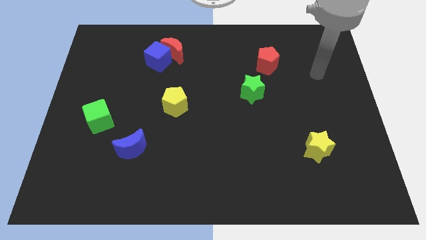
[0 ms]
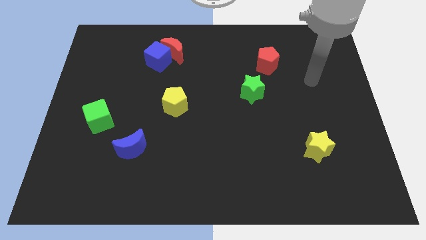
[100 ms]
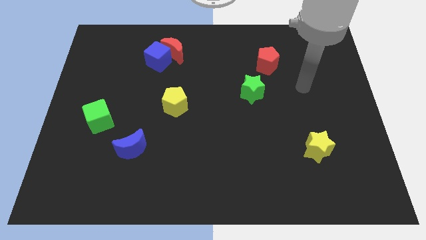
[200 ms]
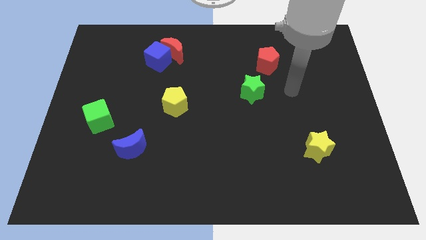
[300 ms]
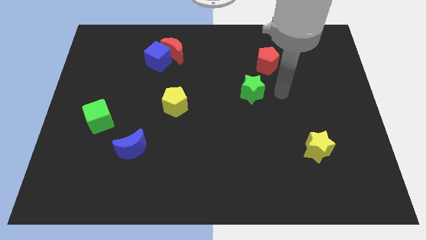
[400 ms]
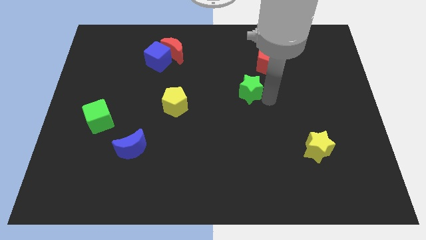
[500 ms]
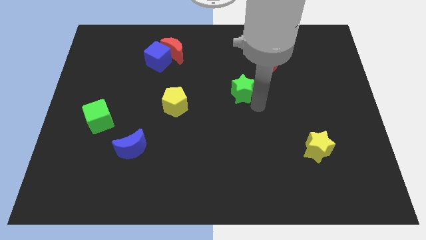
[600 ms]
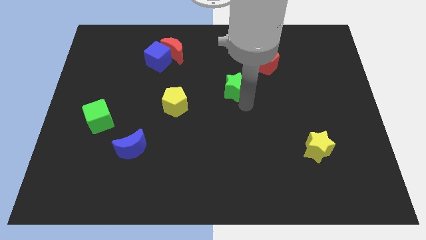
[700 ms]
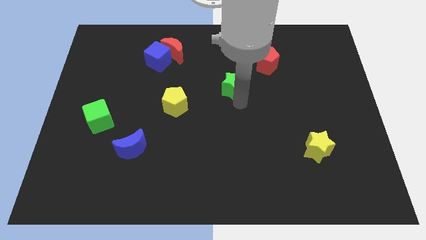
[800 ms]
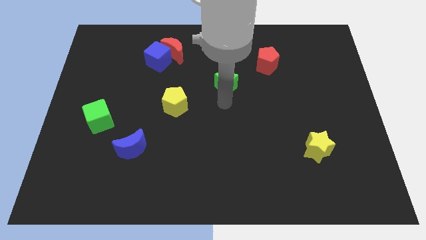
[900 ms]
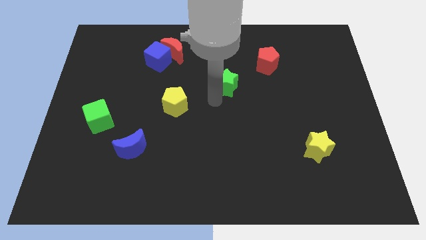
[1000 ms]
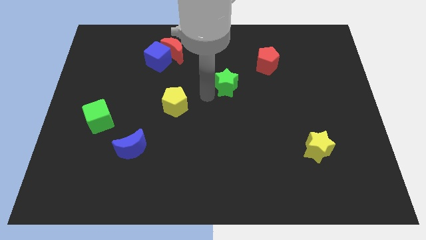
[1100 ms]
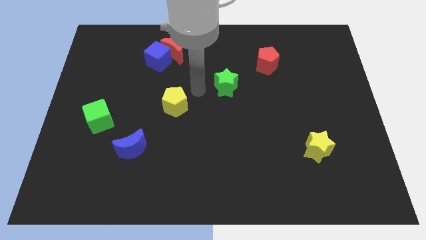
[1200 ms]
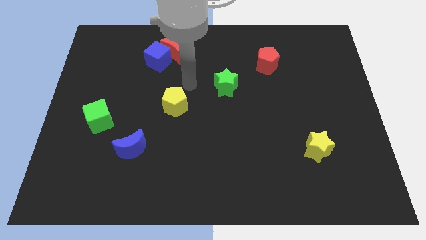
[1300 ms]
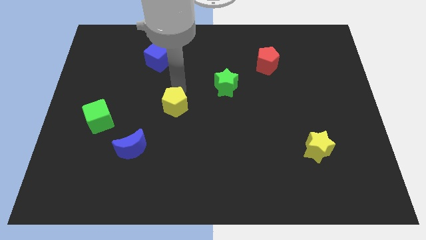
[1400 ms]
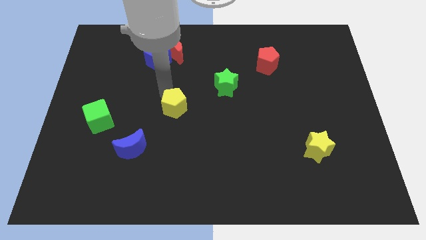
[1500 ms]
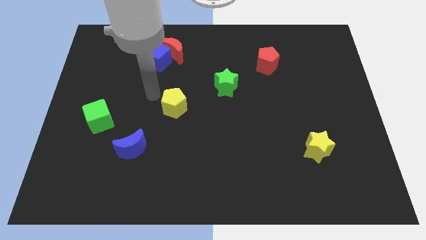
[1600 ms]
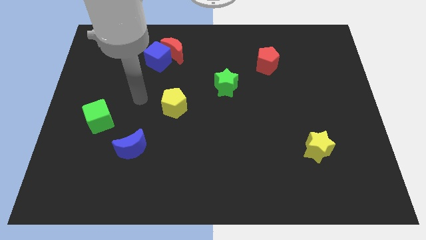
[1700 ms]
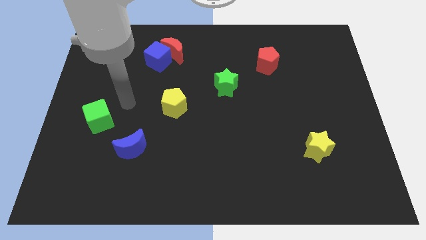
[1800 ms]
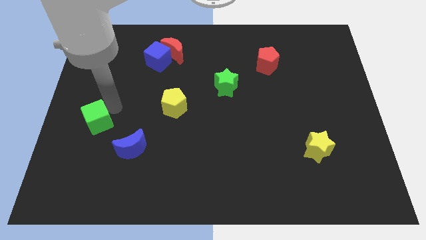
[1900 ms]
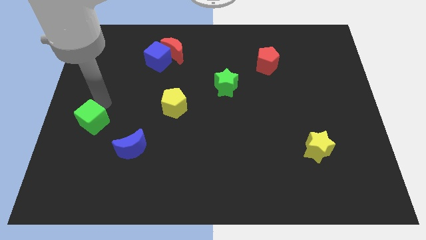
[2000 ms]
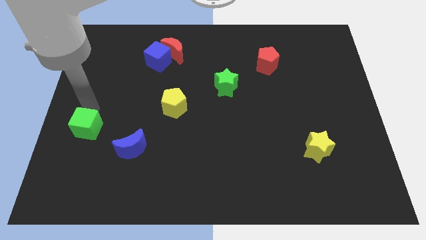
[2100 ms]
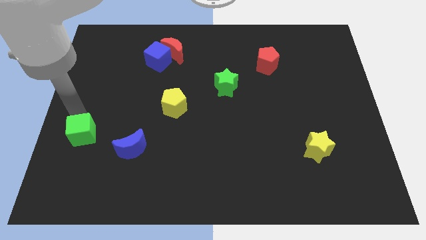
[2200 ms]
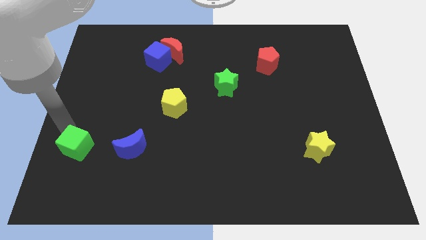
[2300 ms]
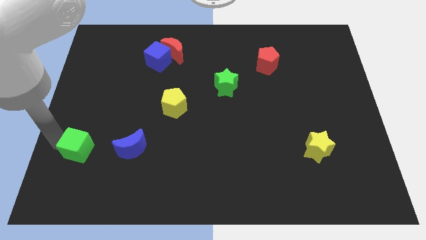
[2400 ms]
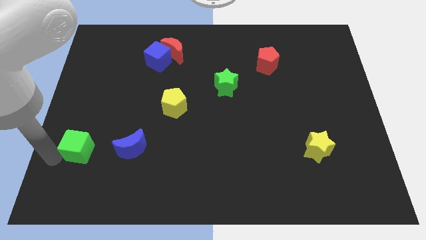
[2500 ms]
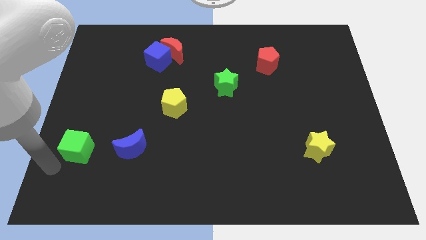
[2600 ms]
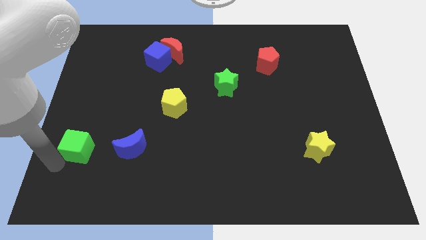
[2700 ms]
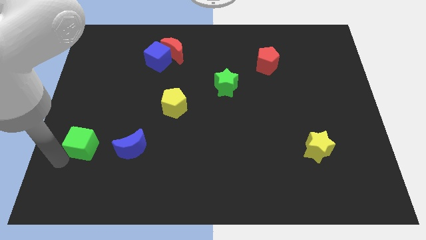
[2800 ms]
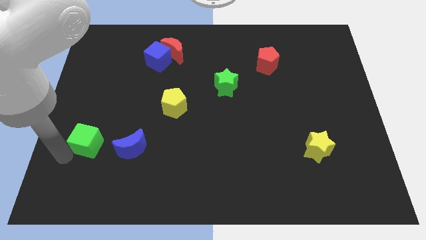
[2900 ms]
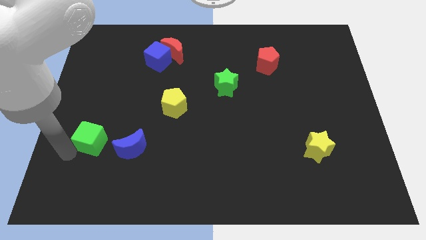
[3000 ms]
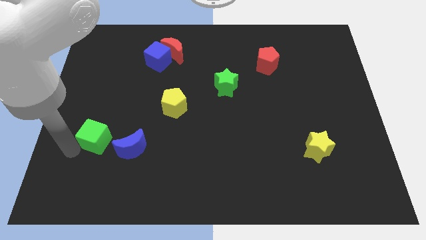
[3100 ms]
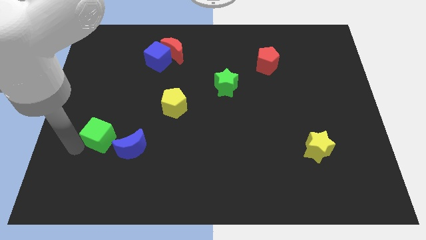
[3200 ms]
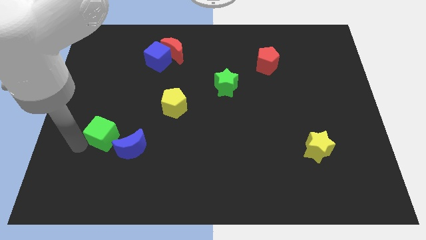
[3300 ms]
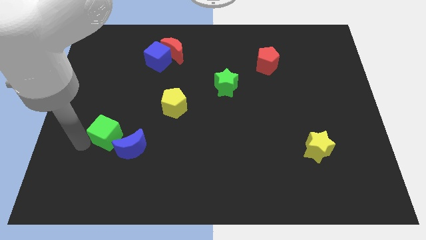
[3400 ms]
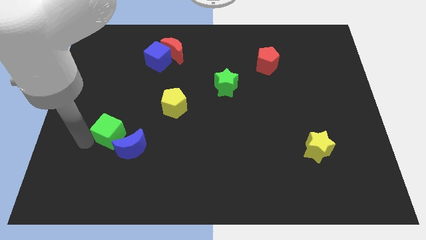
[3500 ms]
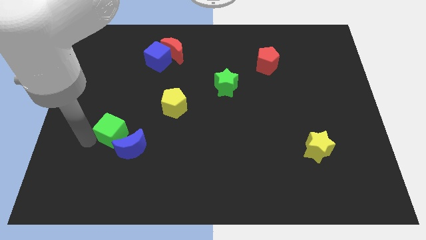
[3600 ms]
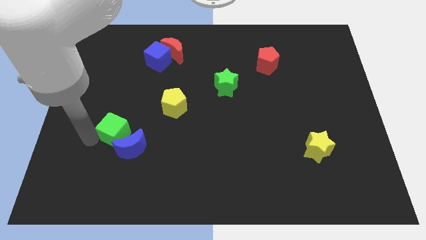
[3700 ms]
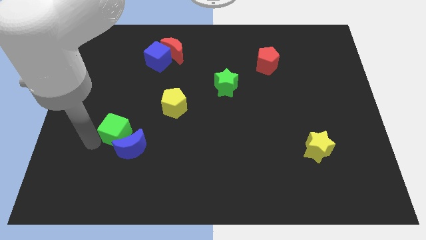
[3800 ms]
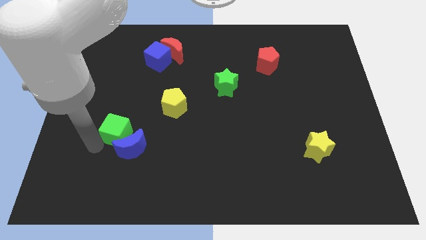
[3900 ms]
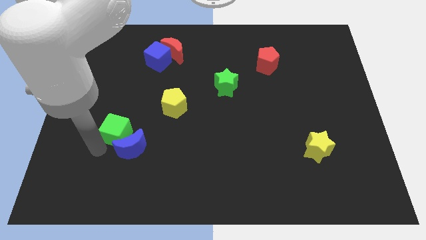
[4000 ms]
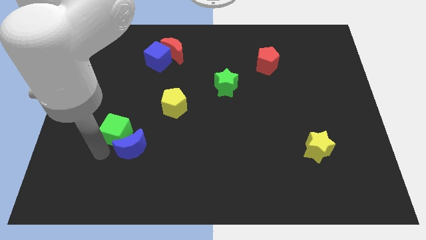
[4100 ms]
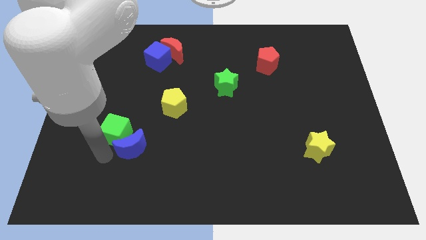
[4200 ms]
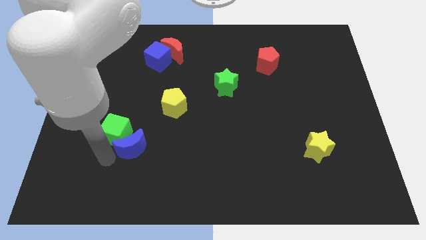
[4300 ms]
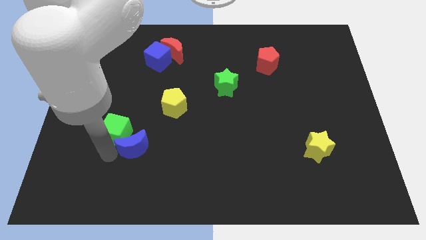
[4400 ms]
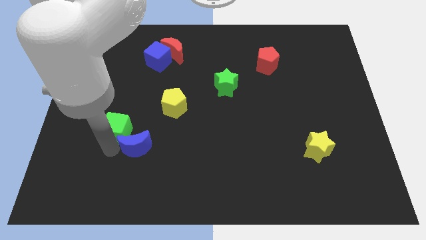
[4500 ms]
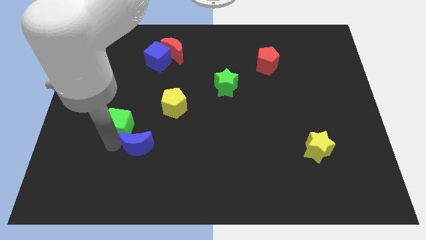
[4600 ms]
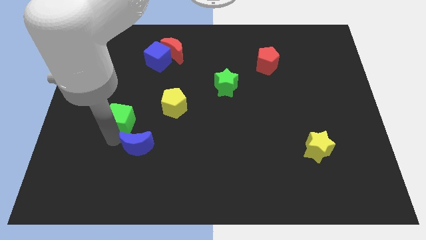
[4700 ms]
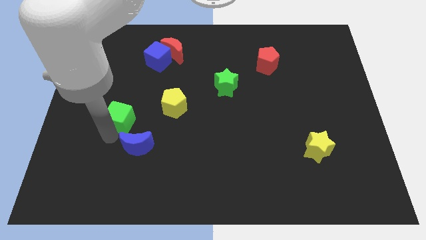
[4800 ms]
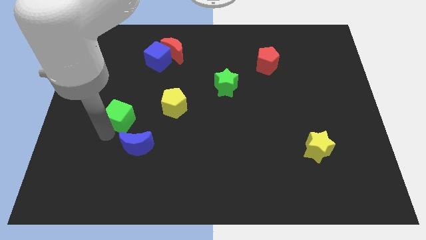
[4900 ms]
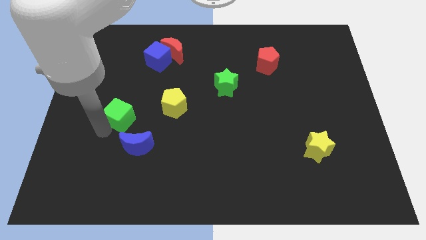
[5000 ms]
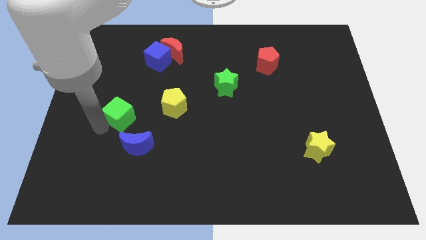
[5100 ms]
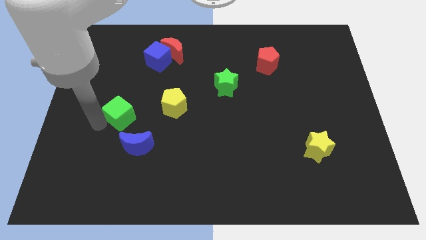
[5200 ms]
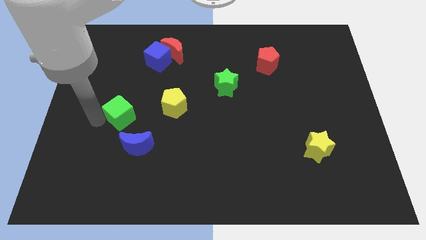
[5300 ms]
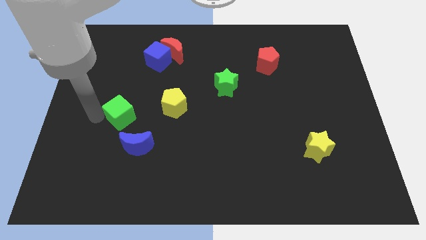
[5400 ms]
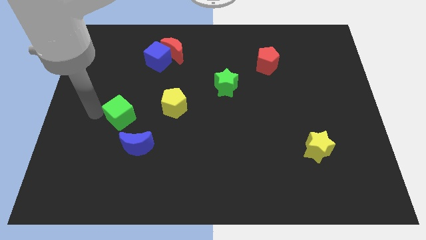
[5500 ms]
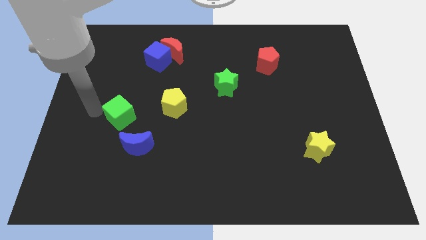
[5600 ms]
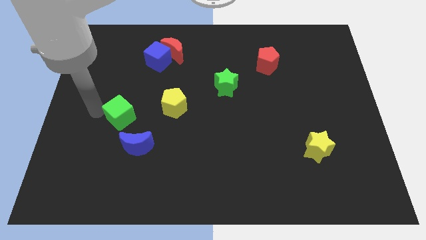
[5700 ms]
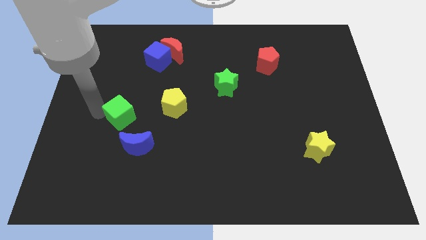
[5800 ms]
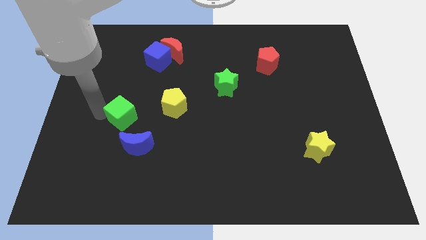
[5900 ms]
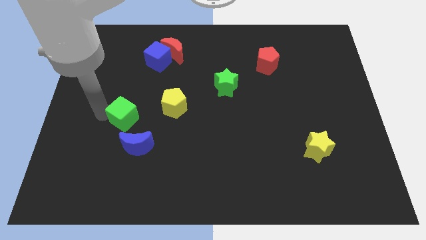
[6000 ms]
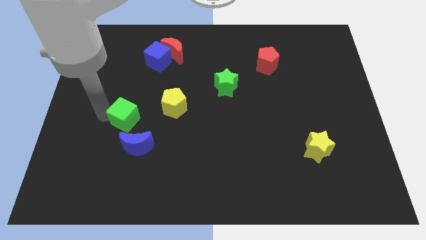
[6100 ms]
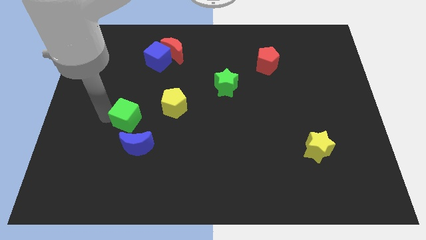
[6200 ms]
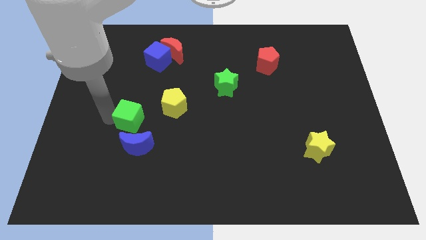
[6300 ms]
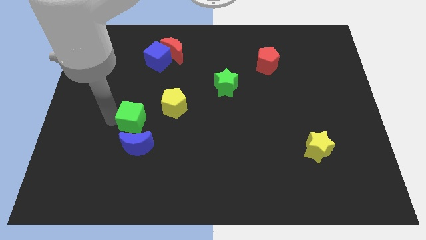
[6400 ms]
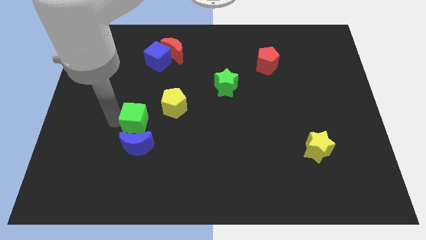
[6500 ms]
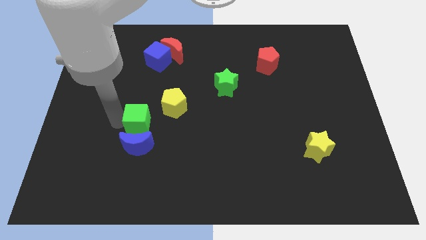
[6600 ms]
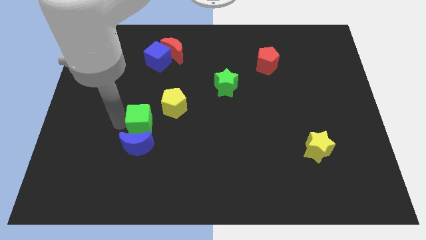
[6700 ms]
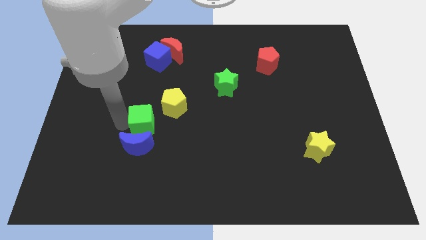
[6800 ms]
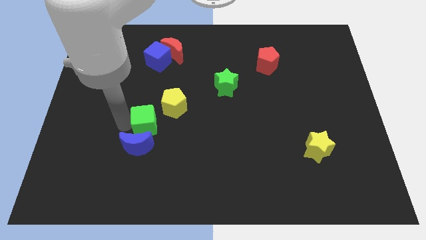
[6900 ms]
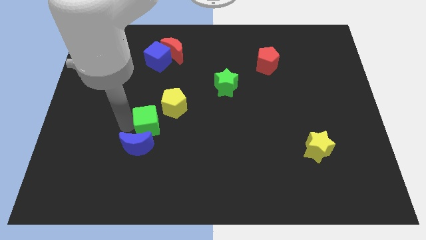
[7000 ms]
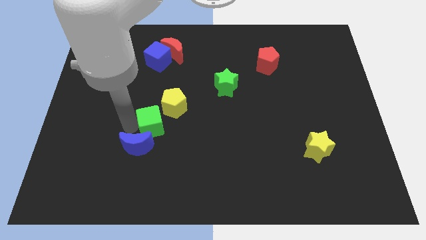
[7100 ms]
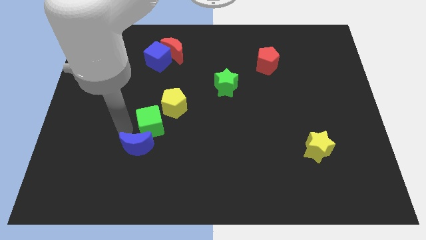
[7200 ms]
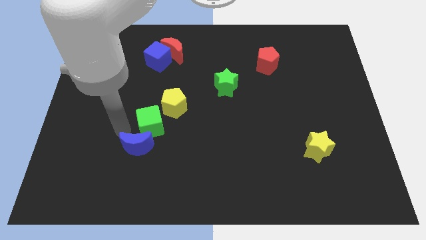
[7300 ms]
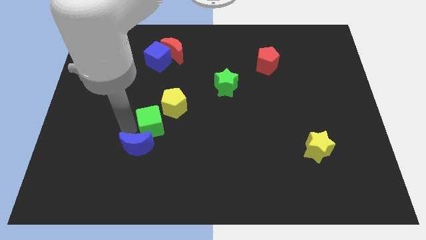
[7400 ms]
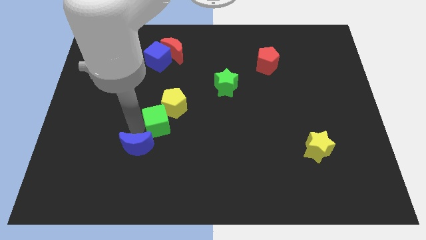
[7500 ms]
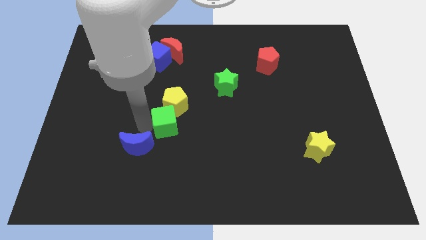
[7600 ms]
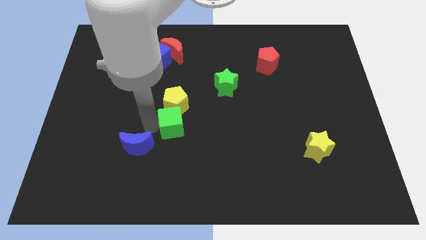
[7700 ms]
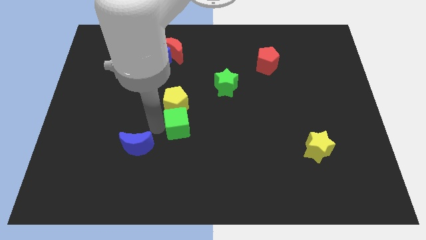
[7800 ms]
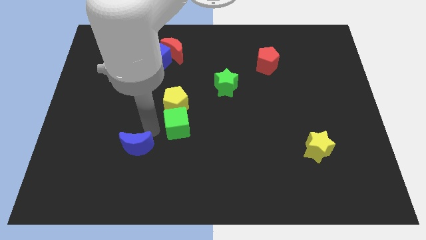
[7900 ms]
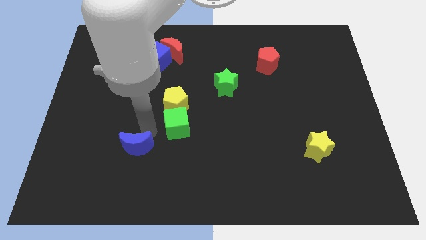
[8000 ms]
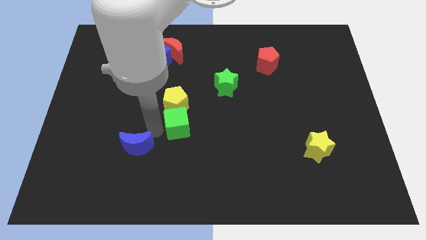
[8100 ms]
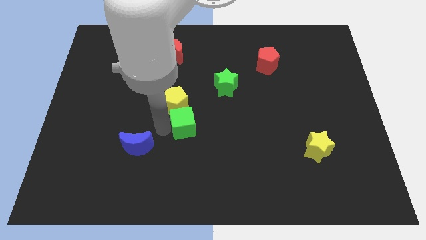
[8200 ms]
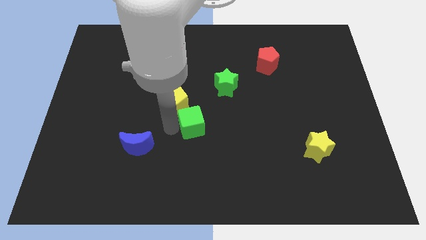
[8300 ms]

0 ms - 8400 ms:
push the green cube right
